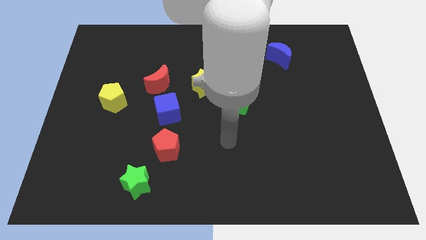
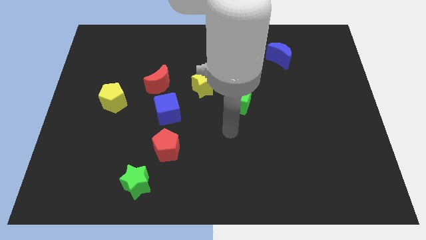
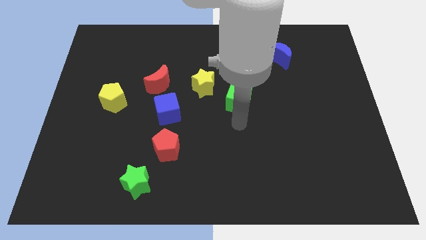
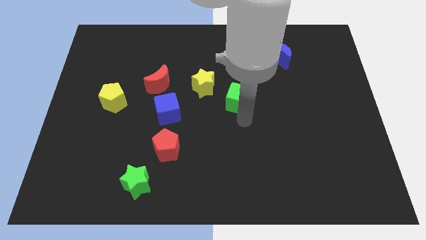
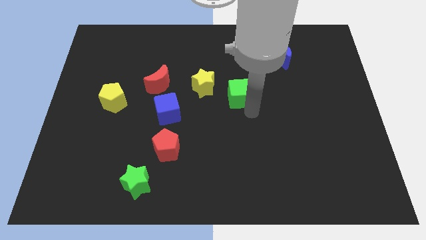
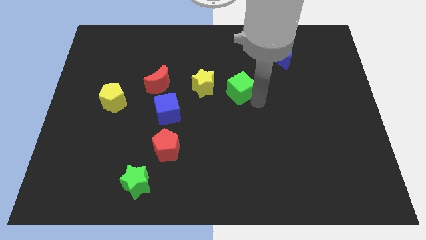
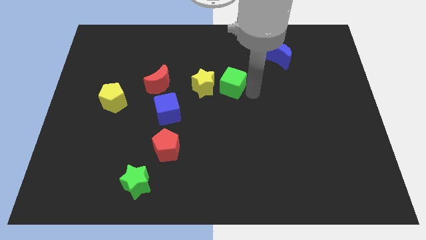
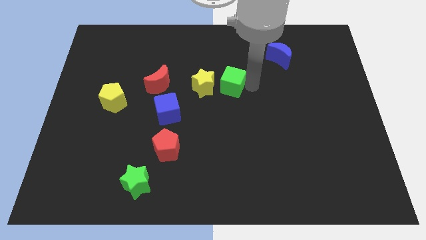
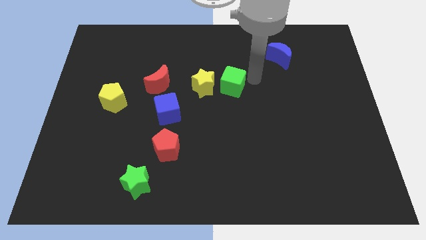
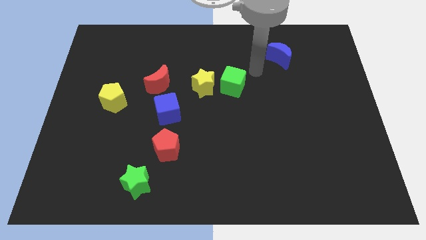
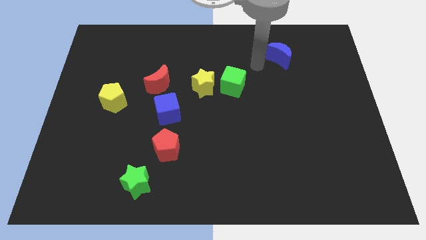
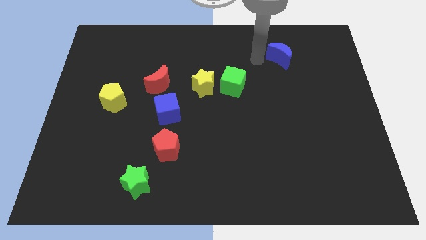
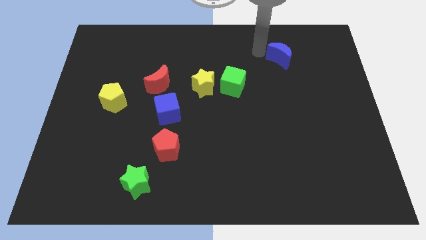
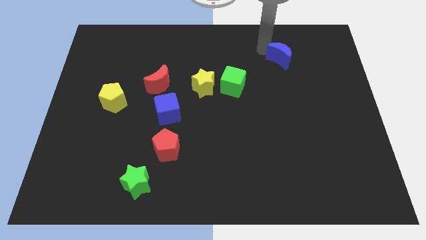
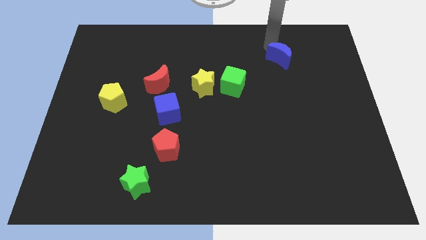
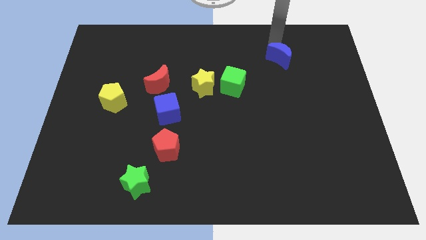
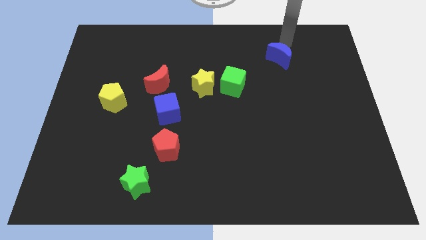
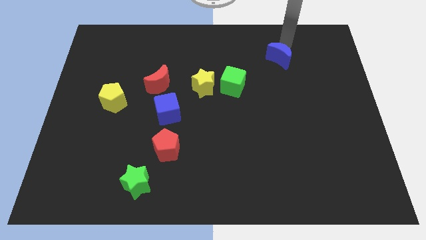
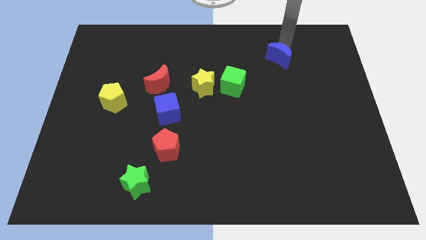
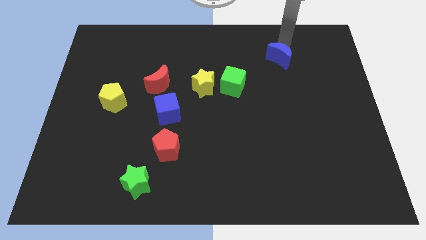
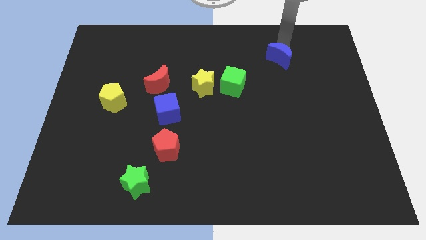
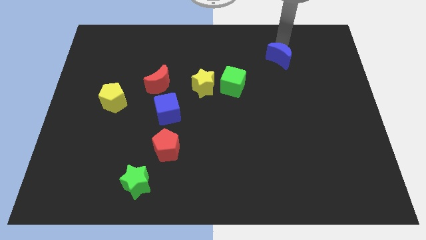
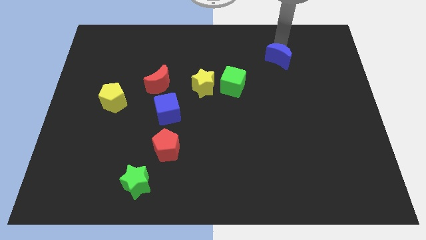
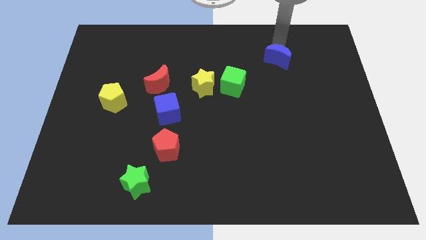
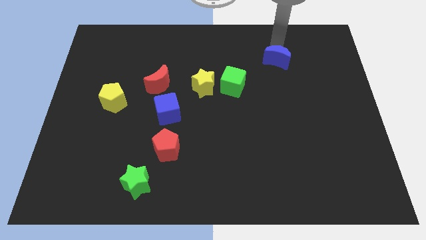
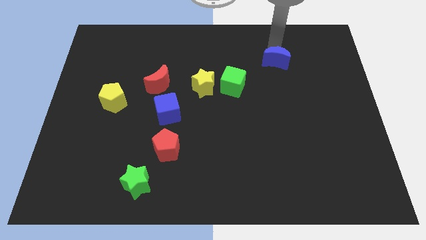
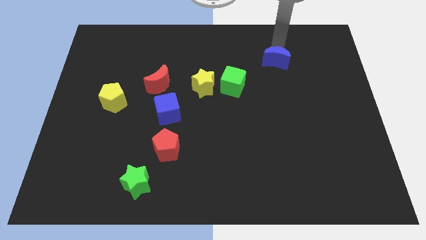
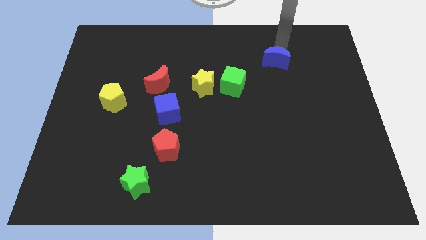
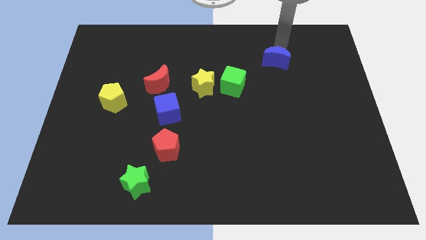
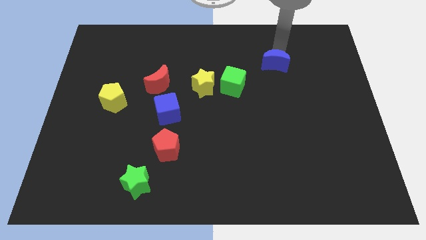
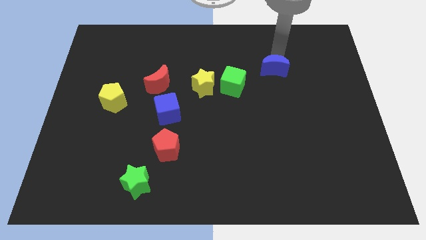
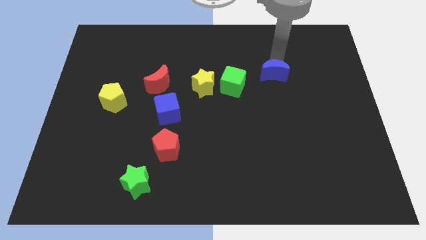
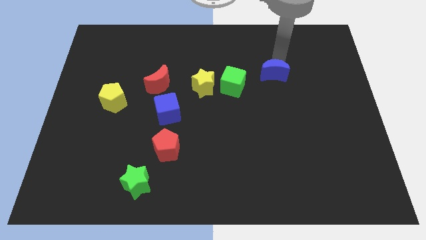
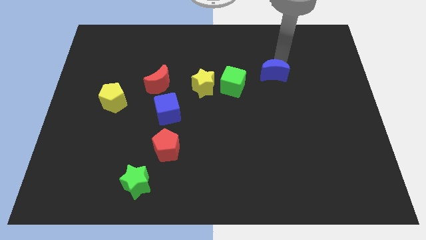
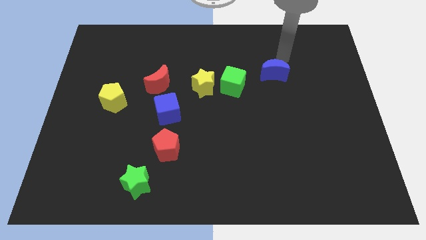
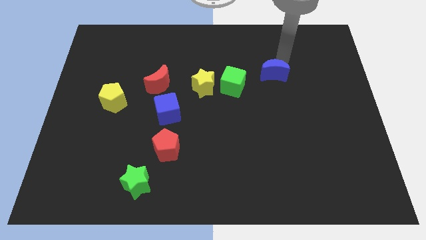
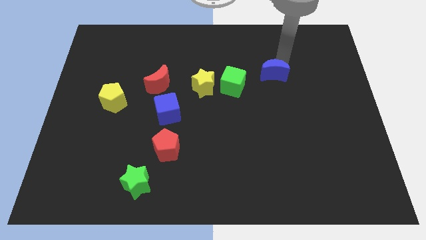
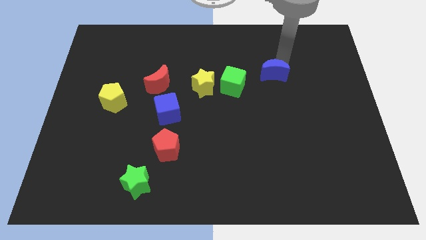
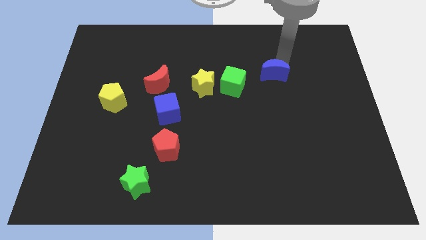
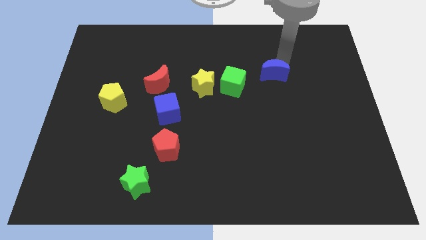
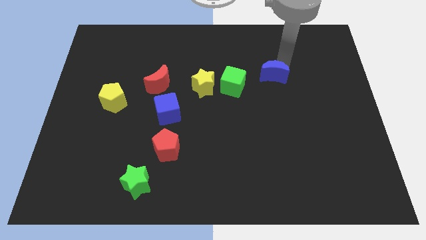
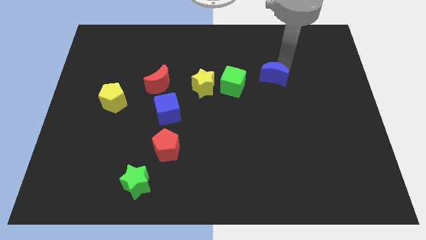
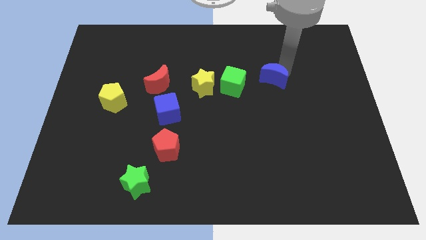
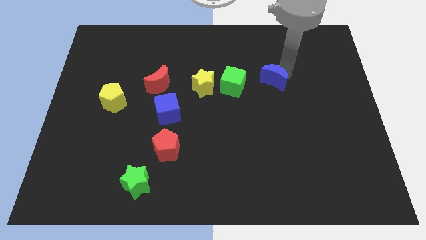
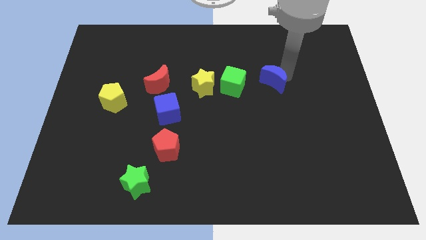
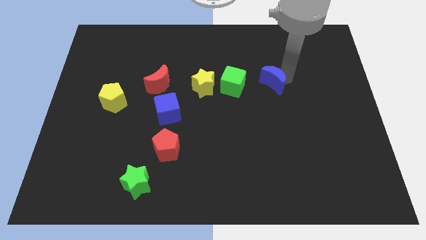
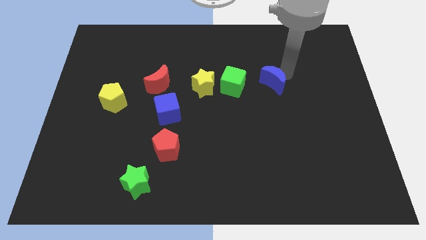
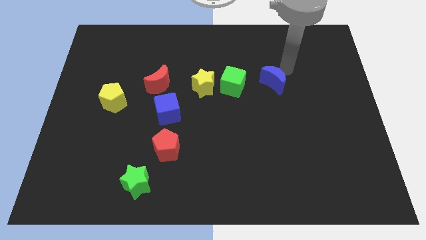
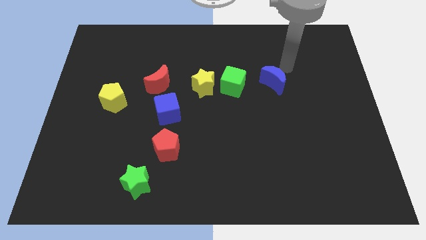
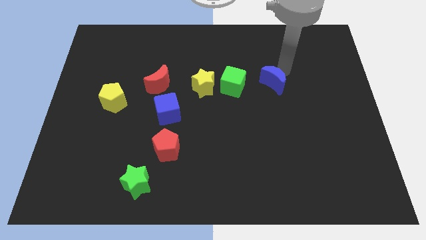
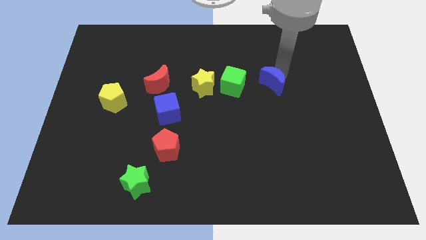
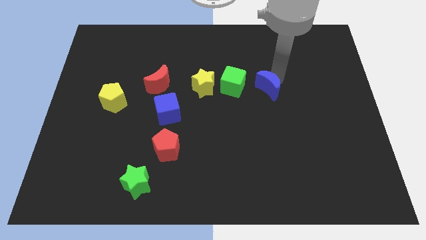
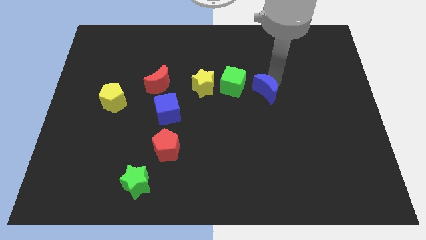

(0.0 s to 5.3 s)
move the blue moon to the bottom right side of the green cube

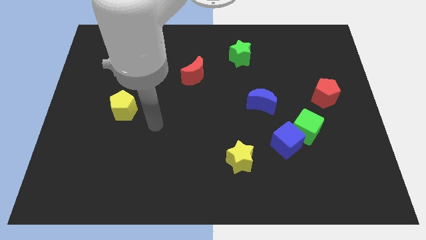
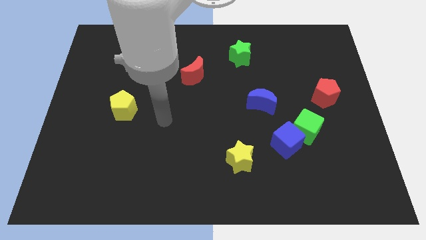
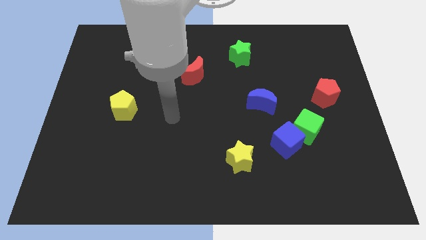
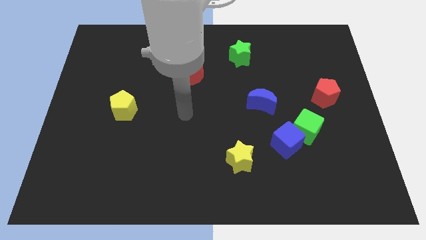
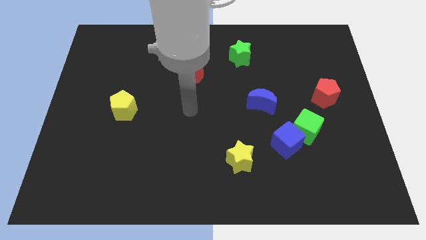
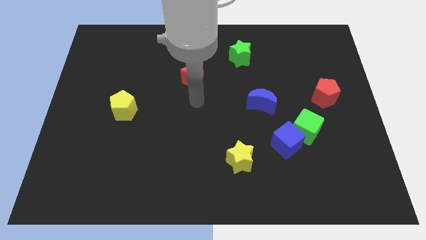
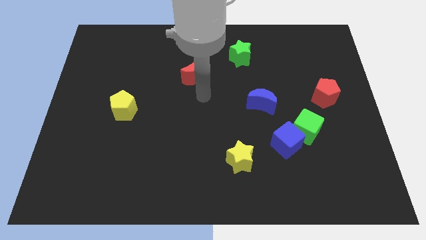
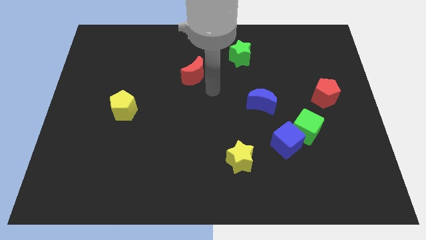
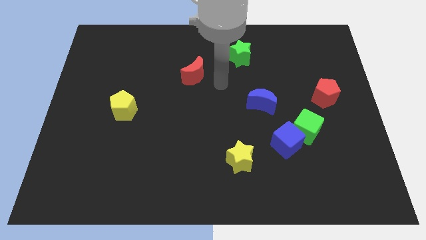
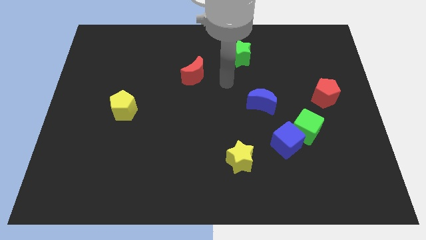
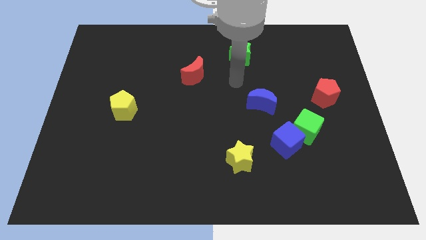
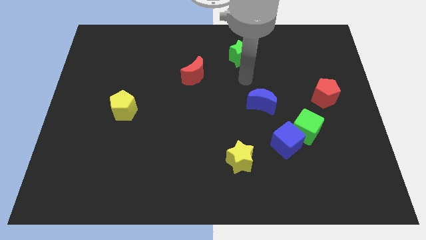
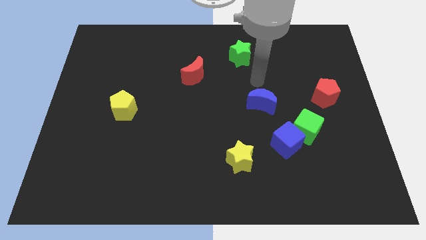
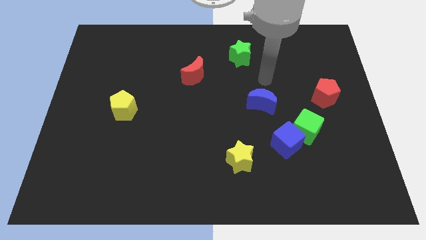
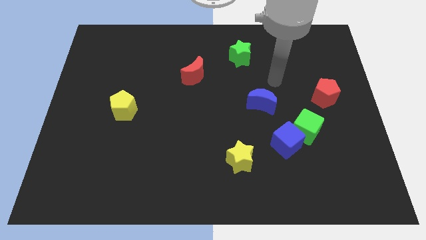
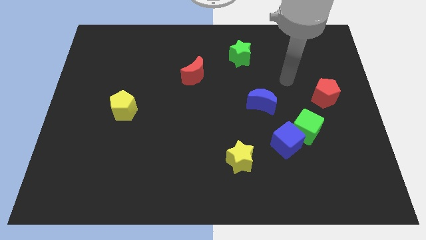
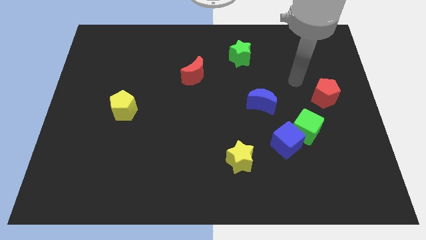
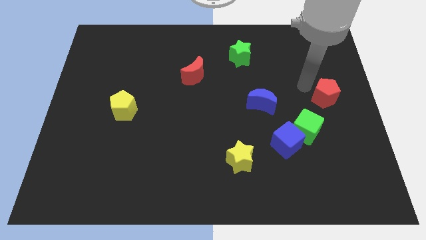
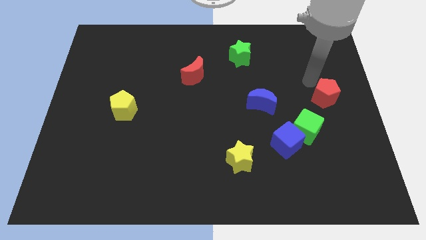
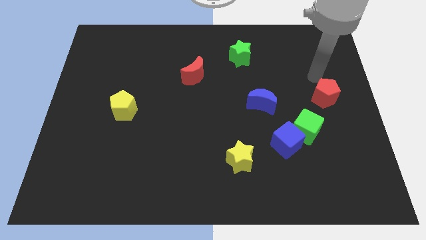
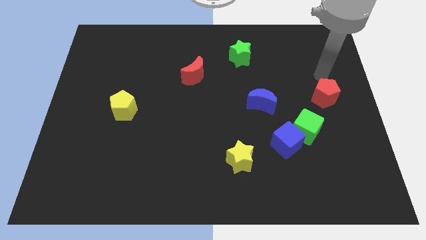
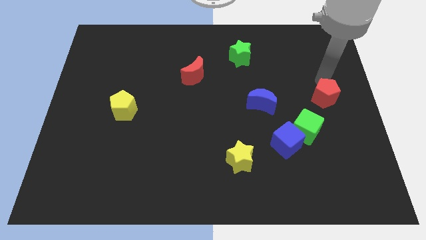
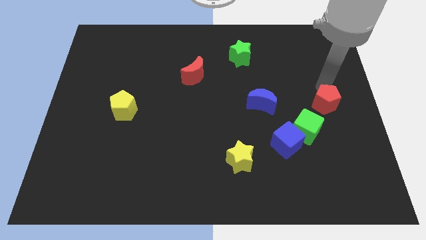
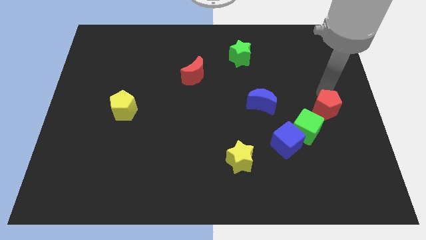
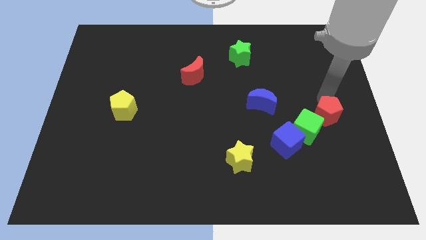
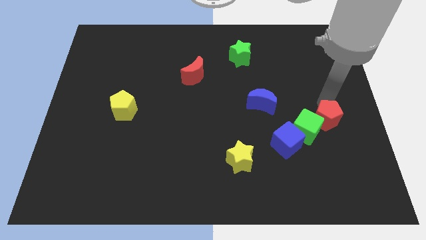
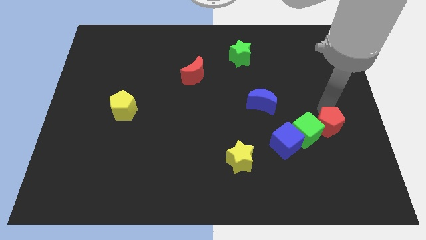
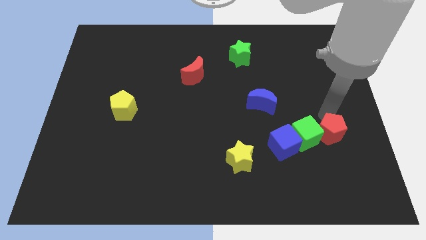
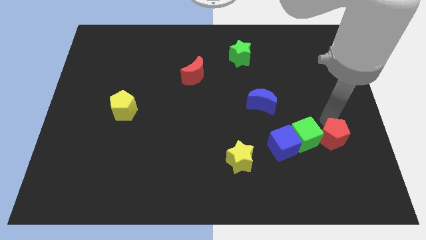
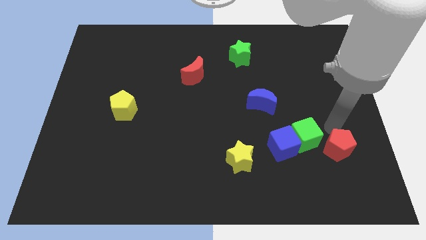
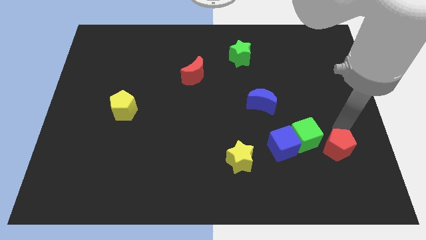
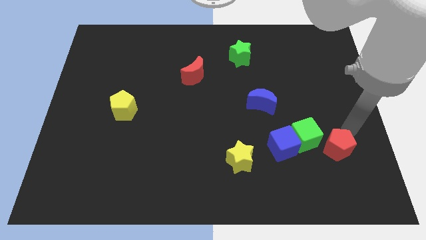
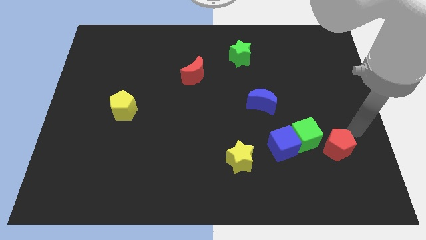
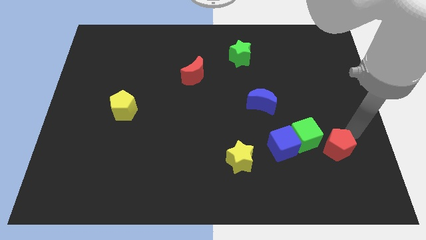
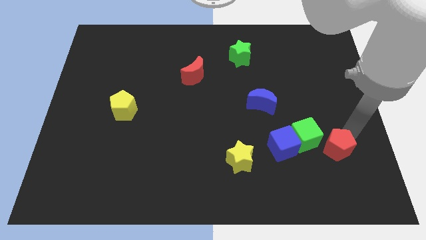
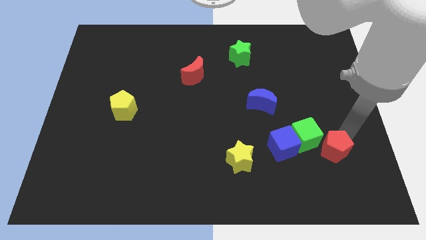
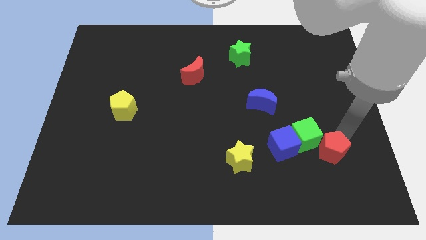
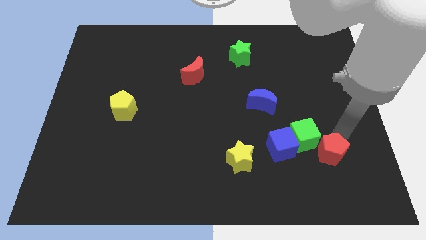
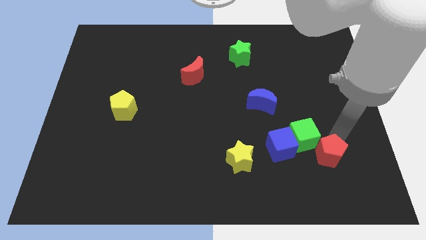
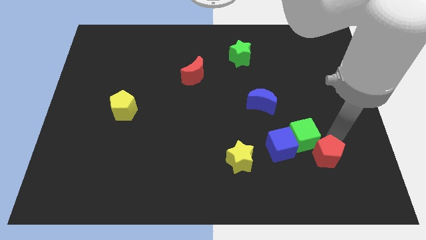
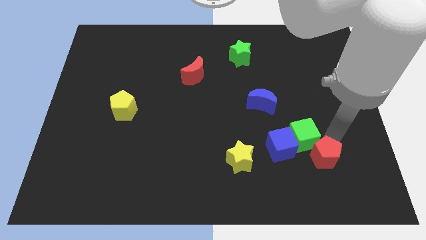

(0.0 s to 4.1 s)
put the red pentagon to the bottom right of the blue cube
